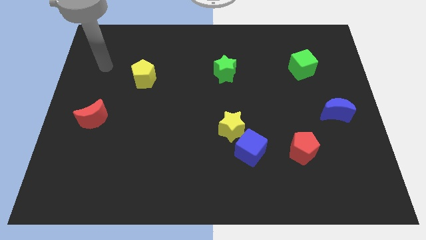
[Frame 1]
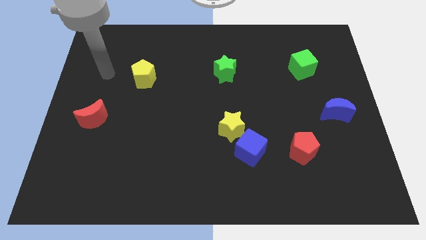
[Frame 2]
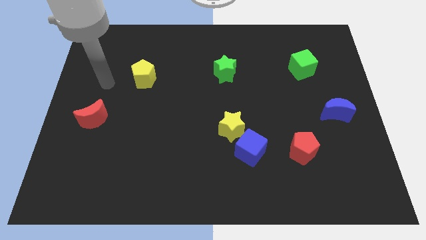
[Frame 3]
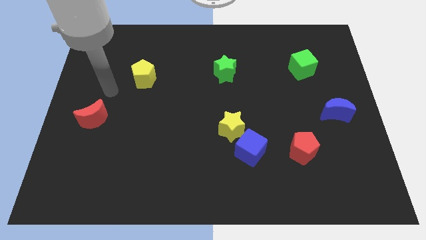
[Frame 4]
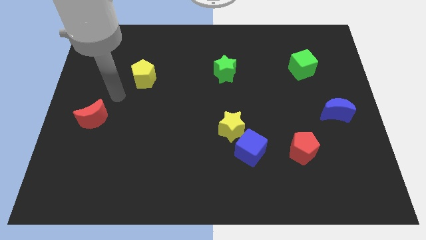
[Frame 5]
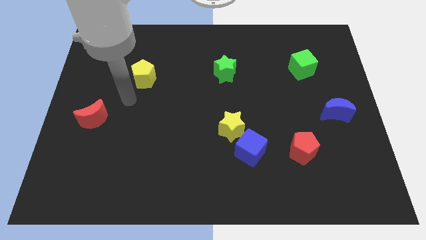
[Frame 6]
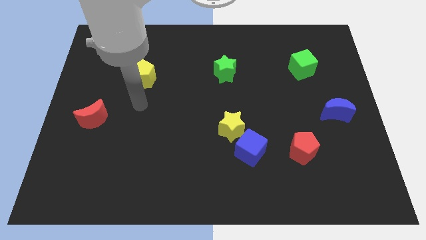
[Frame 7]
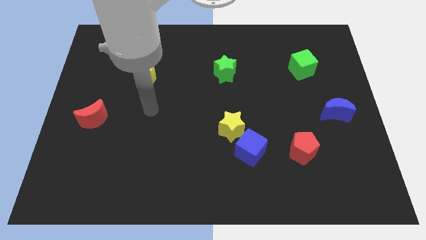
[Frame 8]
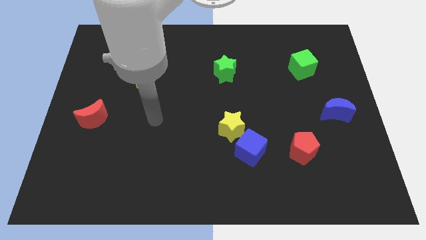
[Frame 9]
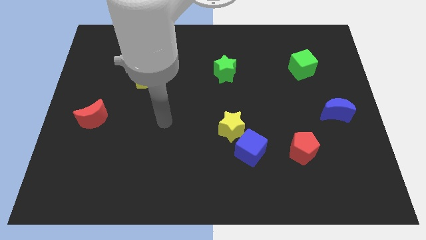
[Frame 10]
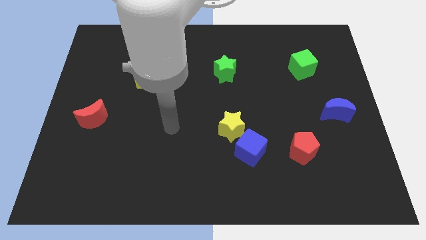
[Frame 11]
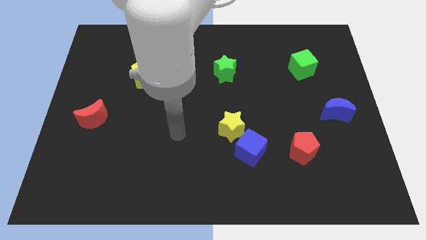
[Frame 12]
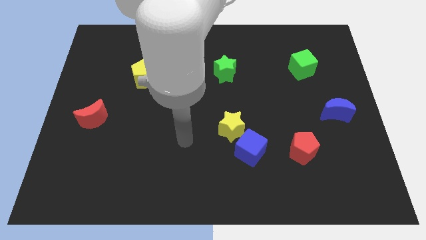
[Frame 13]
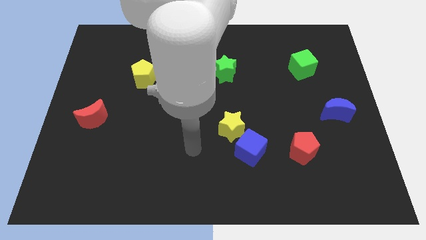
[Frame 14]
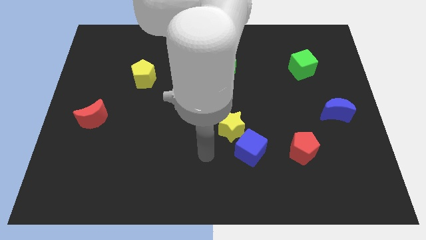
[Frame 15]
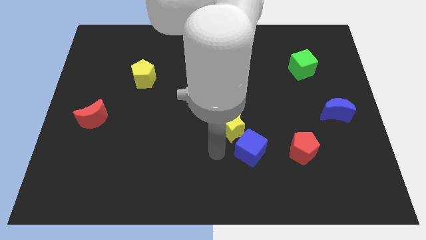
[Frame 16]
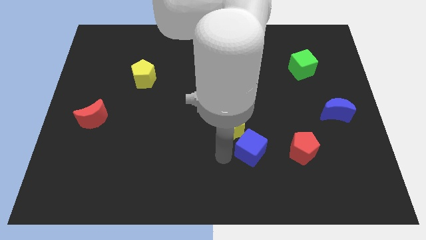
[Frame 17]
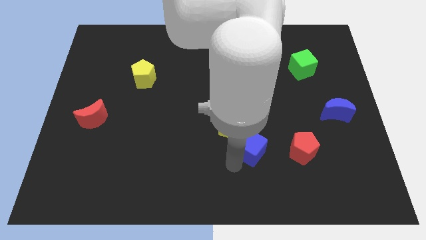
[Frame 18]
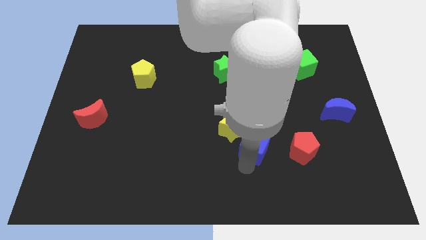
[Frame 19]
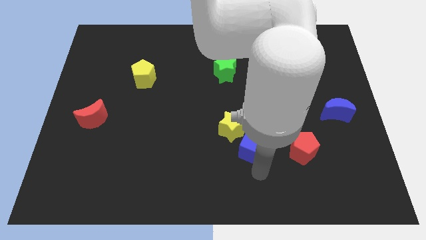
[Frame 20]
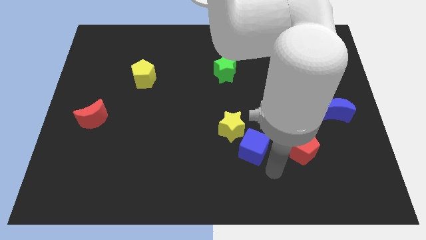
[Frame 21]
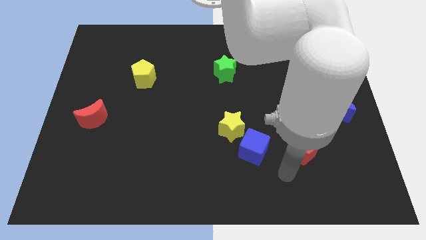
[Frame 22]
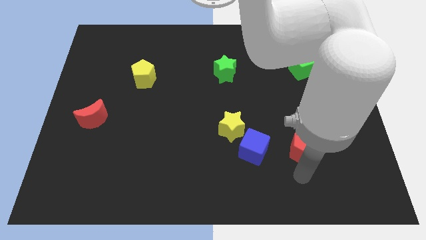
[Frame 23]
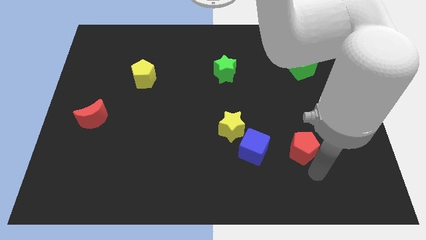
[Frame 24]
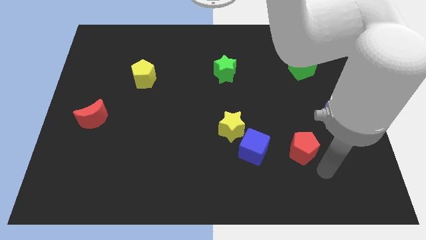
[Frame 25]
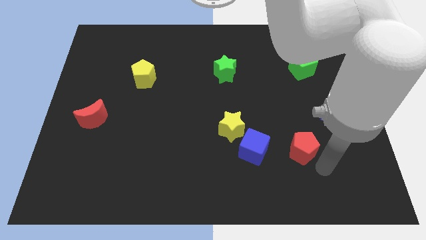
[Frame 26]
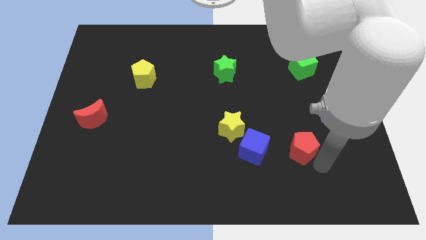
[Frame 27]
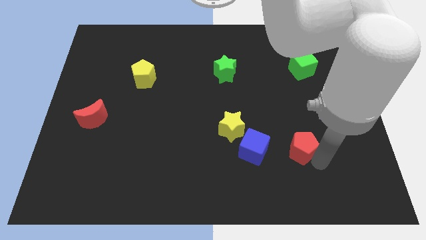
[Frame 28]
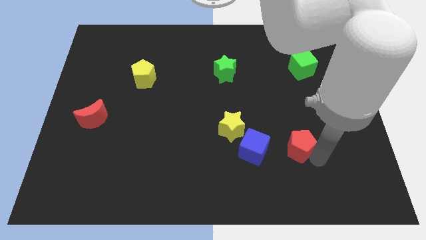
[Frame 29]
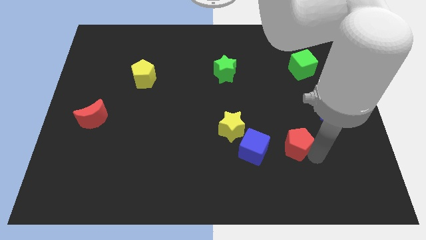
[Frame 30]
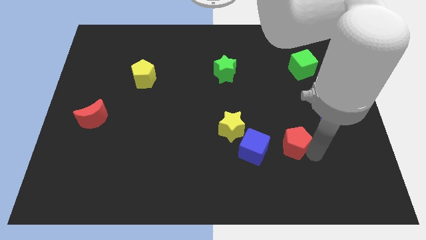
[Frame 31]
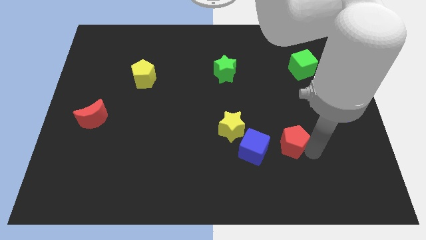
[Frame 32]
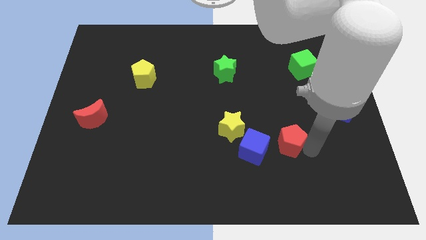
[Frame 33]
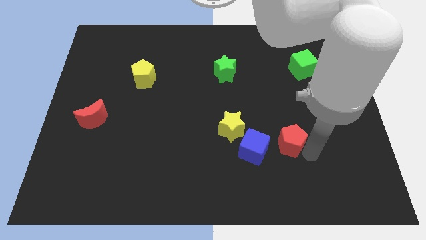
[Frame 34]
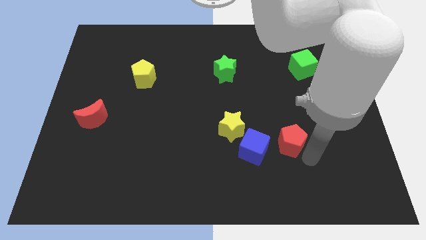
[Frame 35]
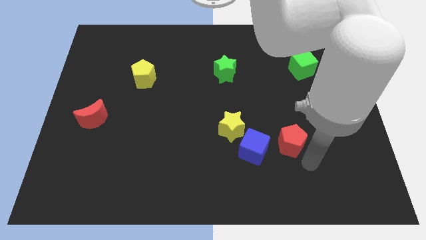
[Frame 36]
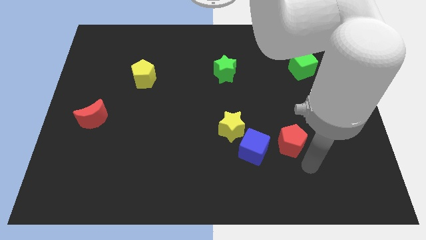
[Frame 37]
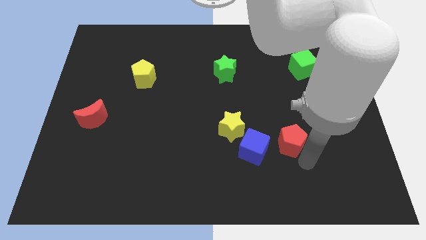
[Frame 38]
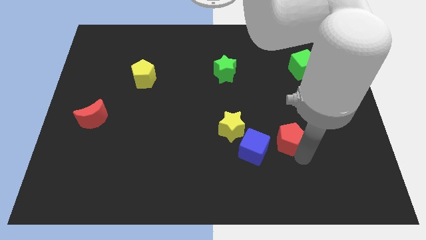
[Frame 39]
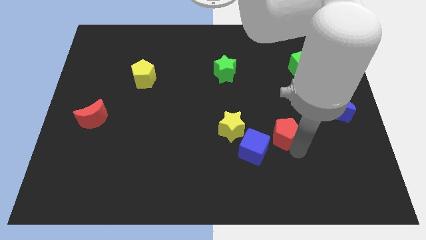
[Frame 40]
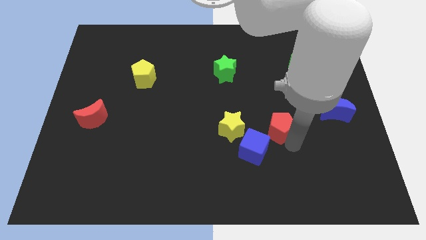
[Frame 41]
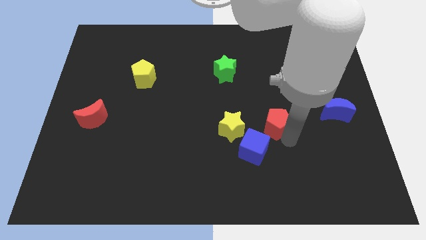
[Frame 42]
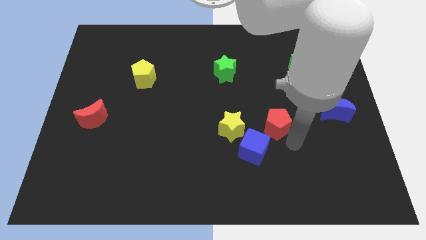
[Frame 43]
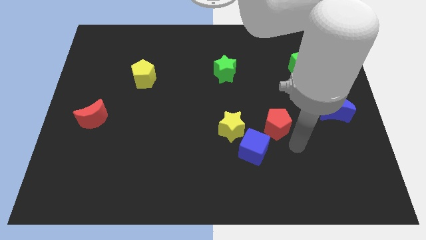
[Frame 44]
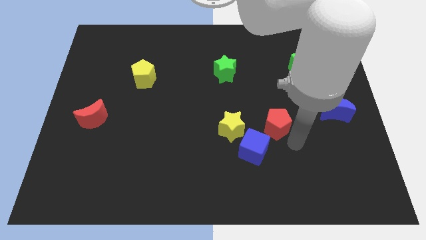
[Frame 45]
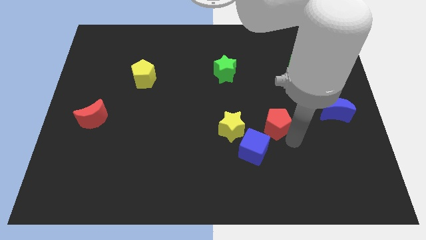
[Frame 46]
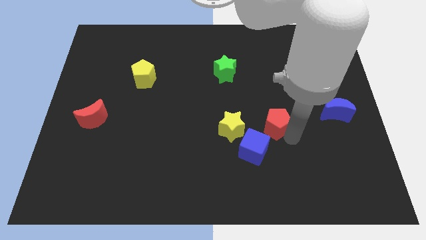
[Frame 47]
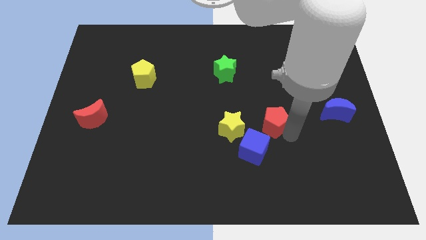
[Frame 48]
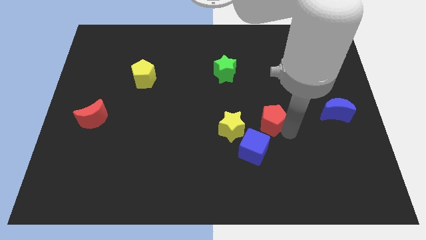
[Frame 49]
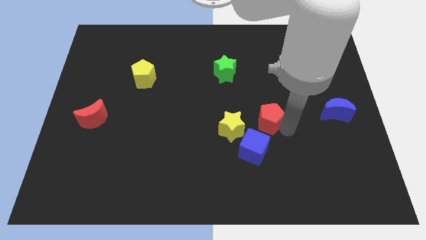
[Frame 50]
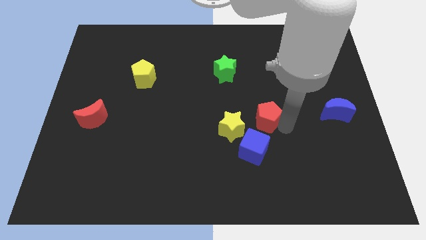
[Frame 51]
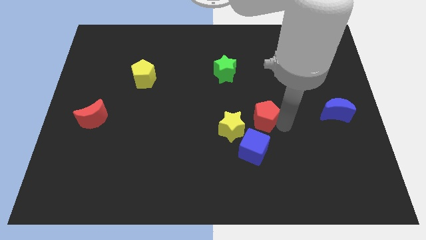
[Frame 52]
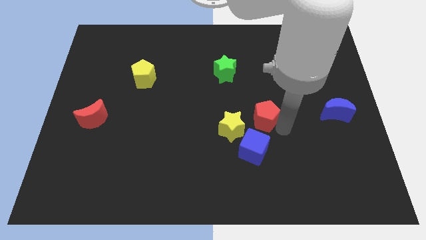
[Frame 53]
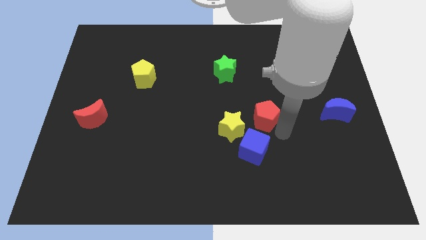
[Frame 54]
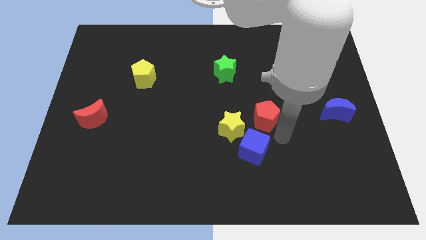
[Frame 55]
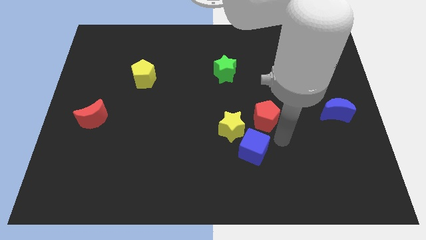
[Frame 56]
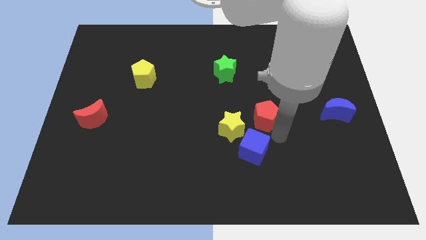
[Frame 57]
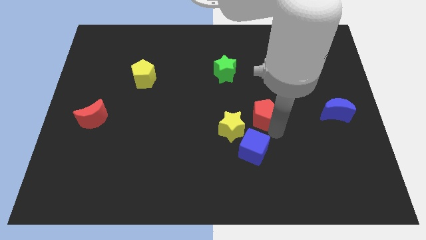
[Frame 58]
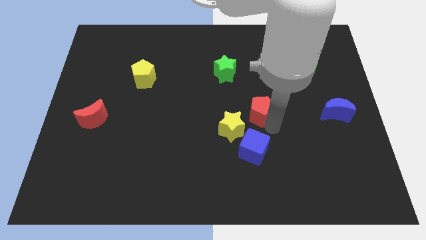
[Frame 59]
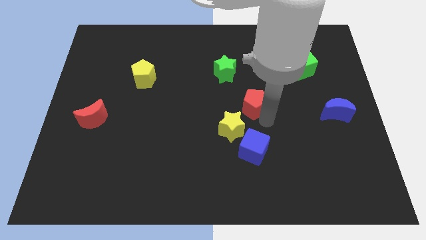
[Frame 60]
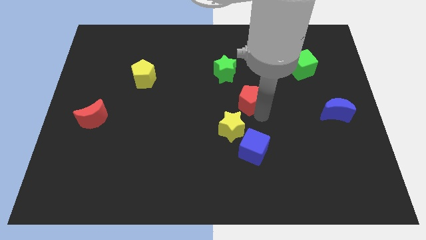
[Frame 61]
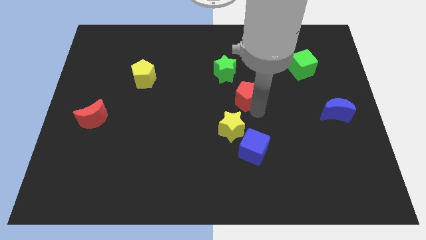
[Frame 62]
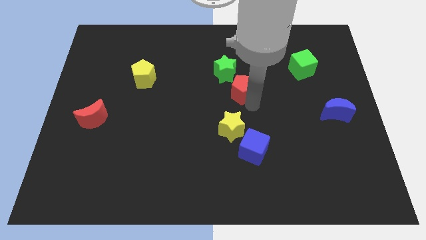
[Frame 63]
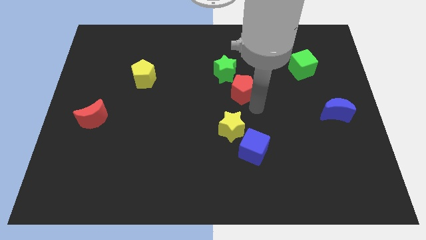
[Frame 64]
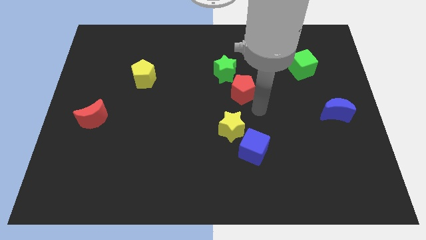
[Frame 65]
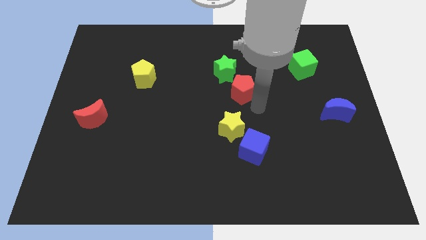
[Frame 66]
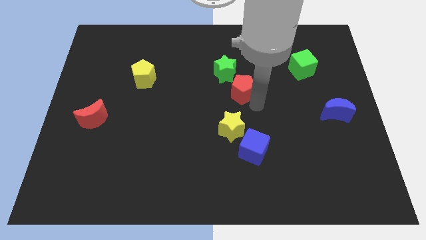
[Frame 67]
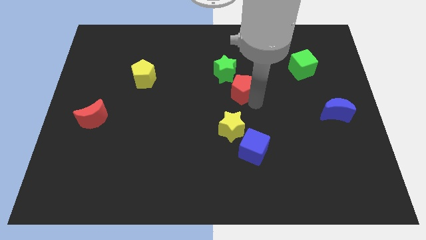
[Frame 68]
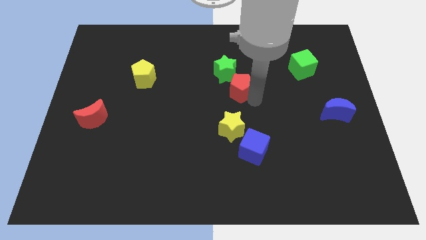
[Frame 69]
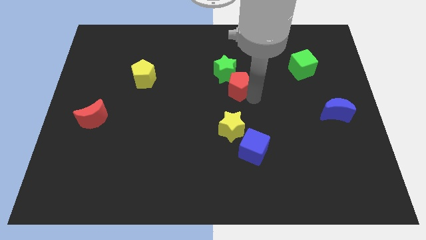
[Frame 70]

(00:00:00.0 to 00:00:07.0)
slide the red pentagon to the green star
